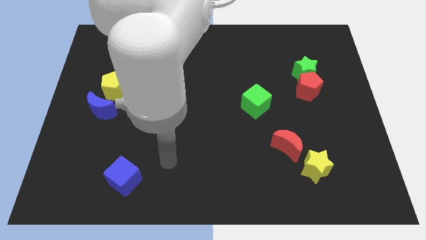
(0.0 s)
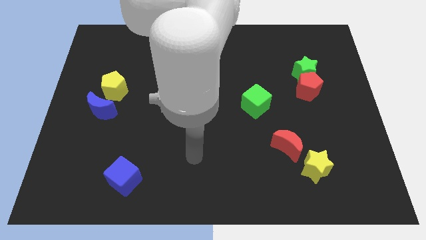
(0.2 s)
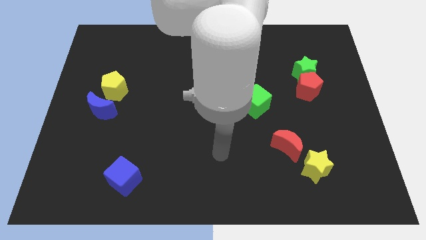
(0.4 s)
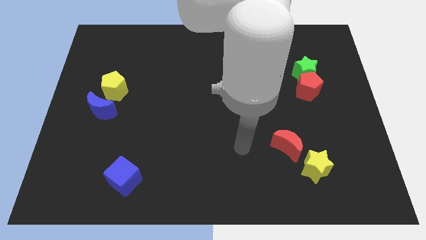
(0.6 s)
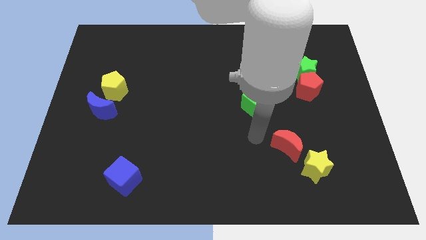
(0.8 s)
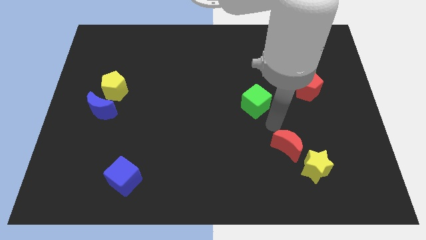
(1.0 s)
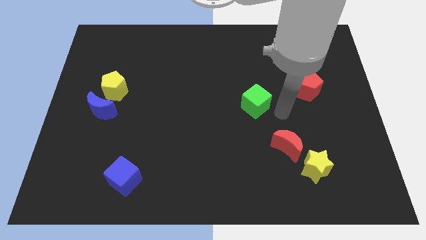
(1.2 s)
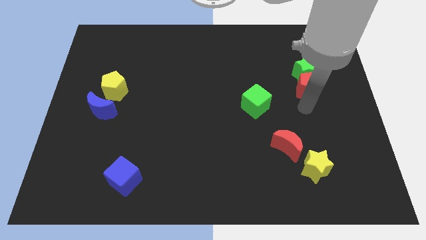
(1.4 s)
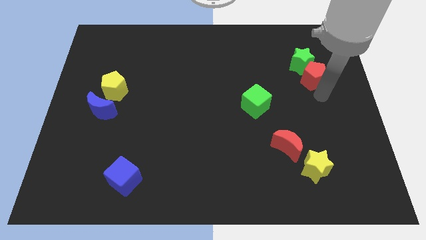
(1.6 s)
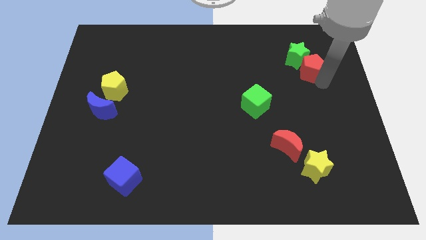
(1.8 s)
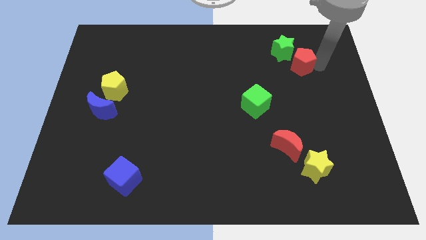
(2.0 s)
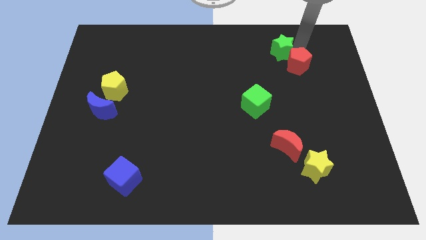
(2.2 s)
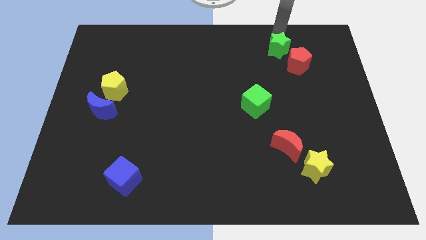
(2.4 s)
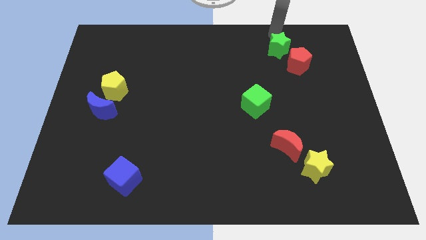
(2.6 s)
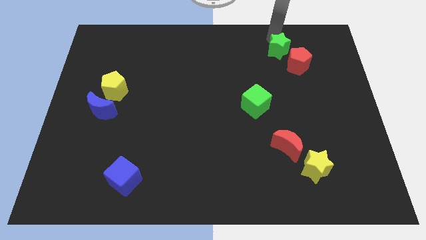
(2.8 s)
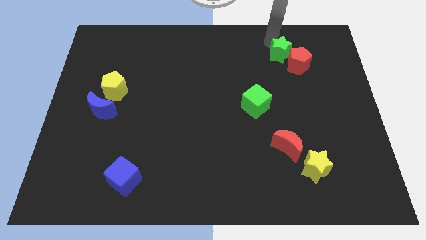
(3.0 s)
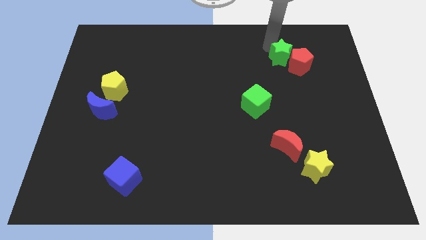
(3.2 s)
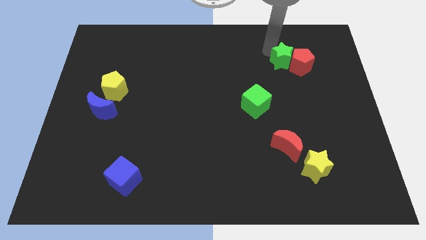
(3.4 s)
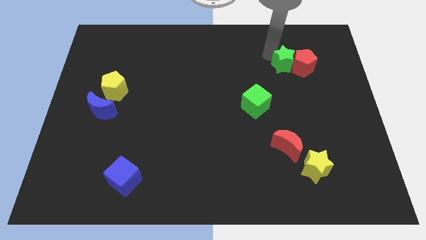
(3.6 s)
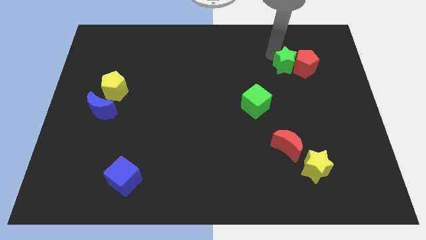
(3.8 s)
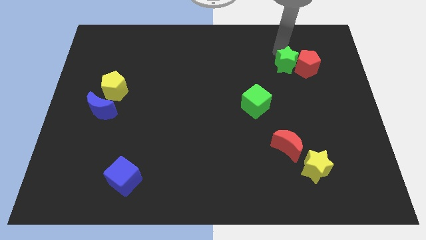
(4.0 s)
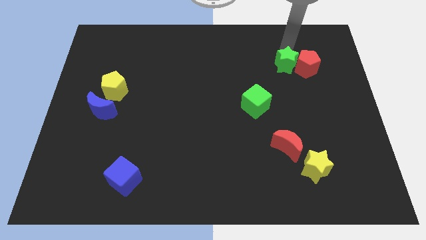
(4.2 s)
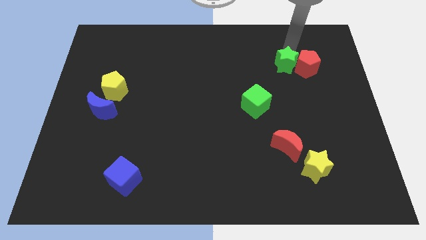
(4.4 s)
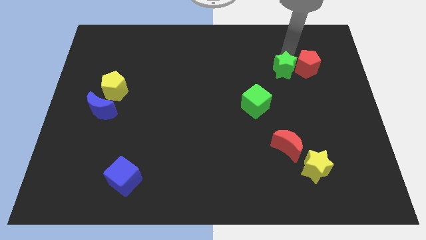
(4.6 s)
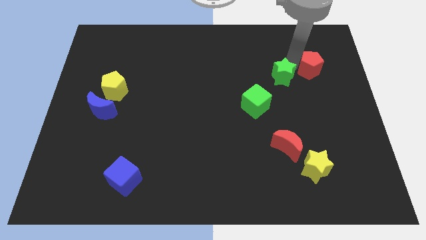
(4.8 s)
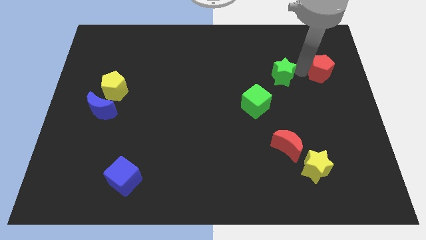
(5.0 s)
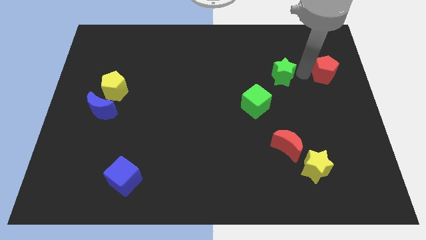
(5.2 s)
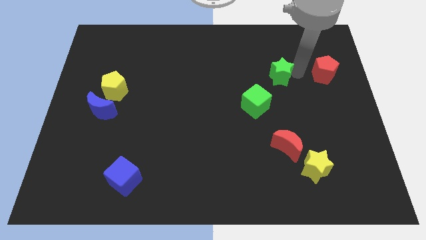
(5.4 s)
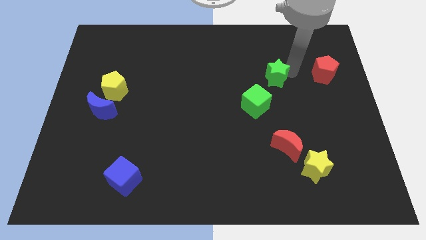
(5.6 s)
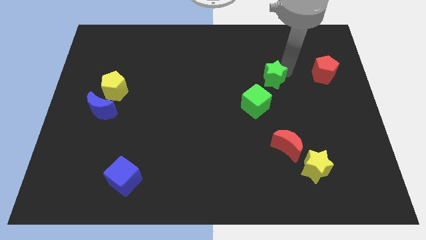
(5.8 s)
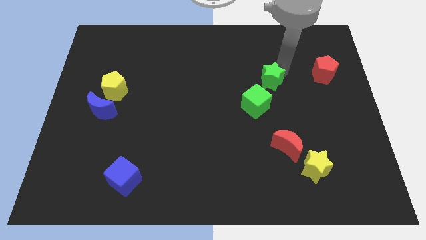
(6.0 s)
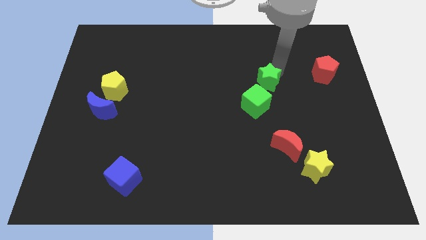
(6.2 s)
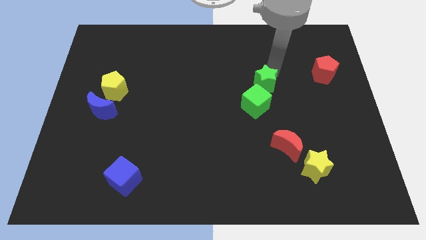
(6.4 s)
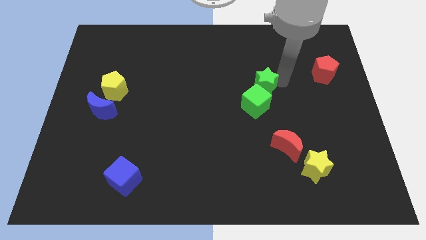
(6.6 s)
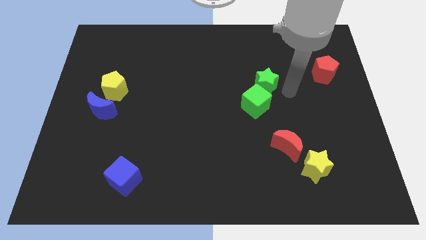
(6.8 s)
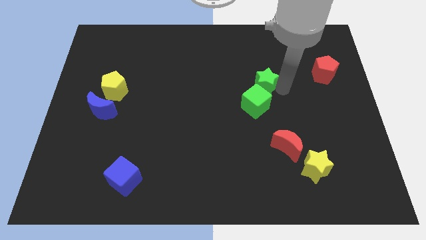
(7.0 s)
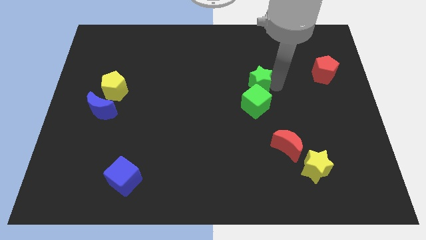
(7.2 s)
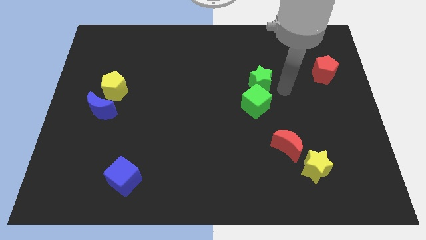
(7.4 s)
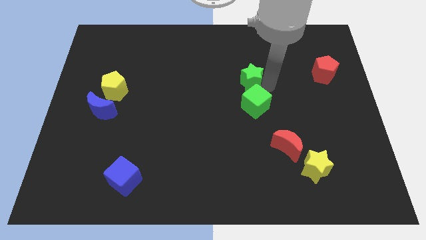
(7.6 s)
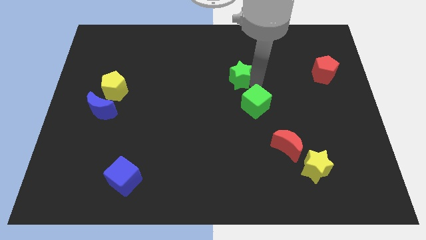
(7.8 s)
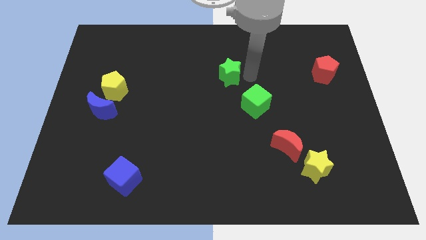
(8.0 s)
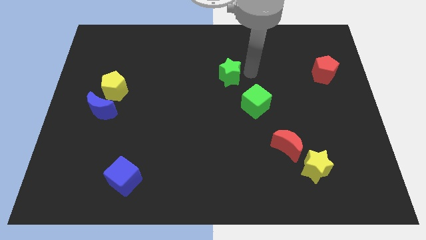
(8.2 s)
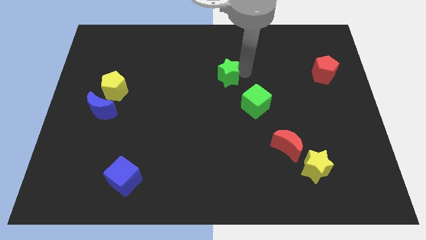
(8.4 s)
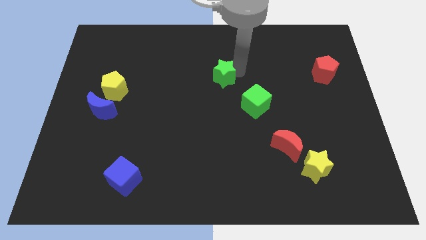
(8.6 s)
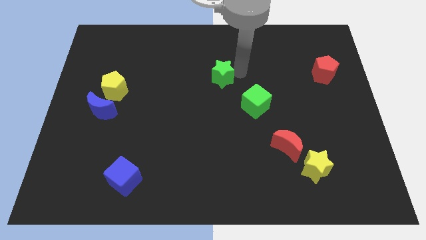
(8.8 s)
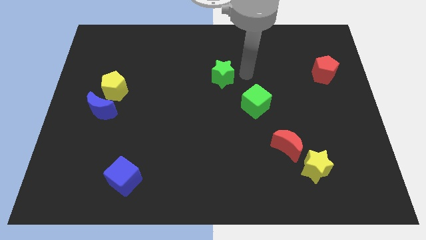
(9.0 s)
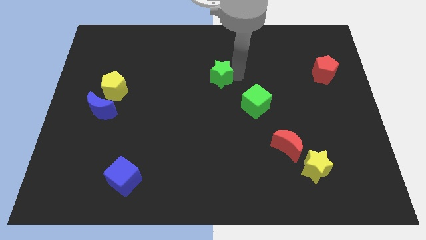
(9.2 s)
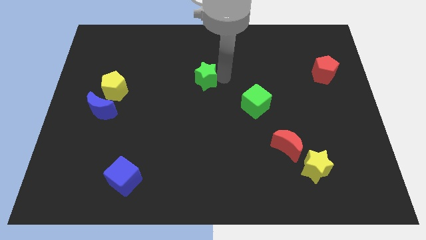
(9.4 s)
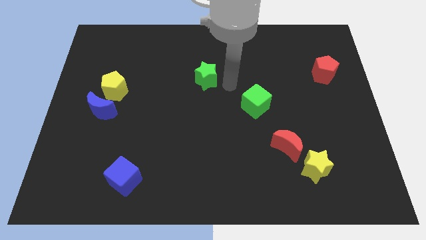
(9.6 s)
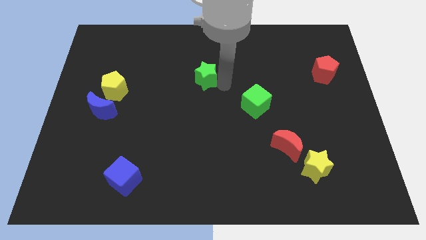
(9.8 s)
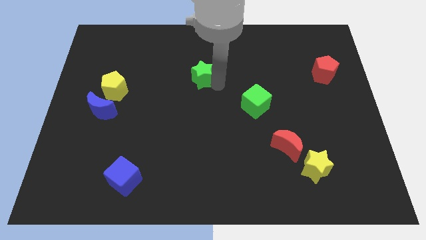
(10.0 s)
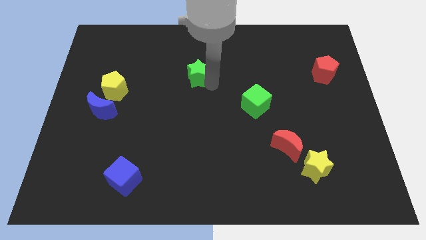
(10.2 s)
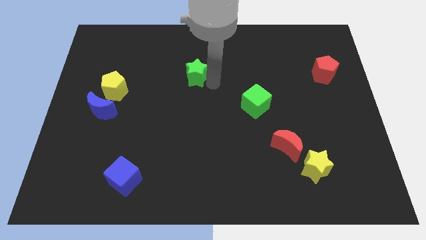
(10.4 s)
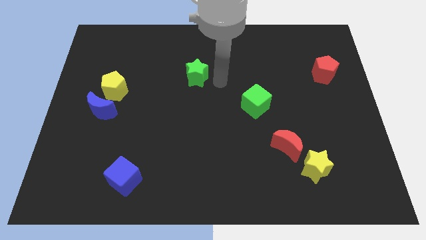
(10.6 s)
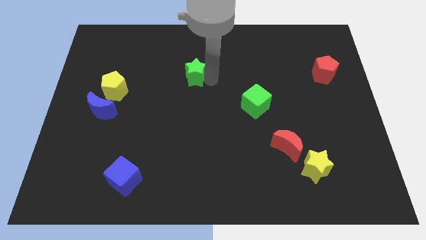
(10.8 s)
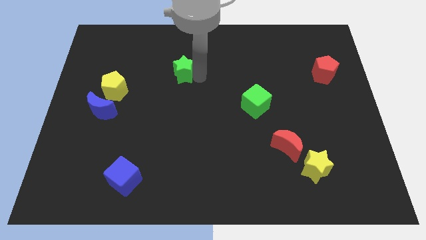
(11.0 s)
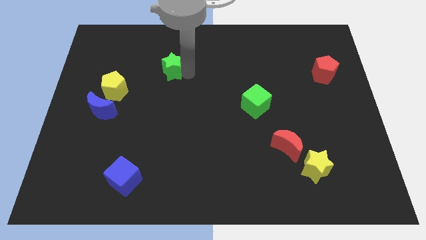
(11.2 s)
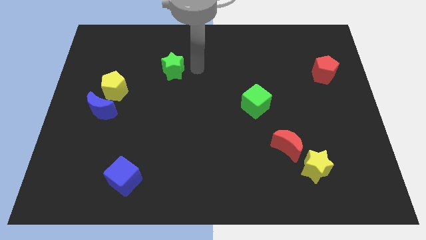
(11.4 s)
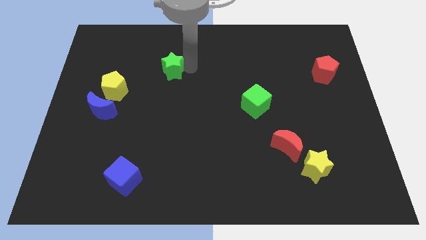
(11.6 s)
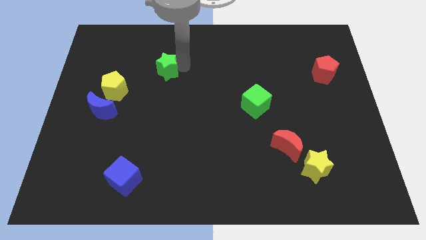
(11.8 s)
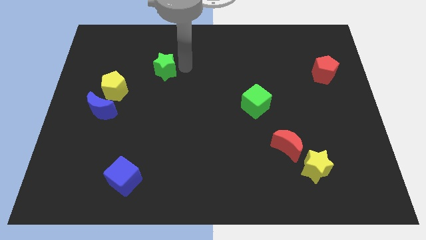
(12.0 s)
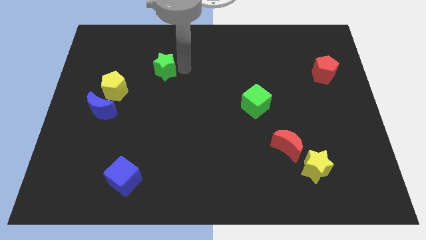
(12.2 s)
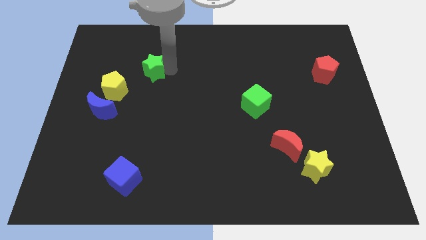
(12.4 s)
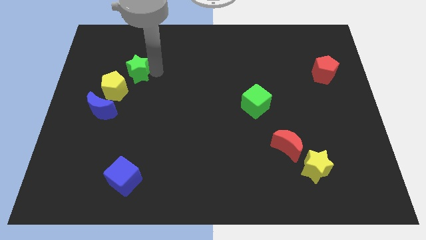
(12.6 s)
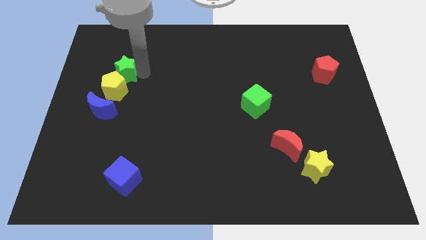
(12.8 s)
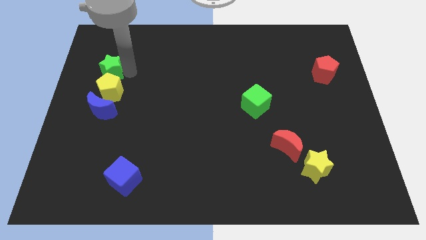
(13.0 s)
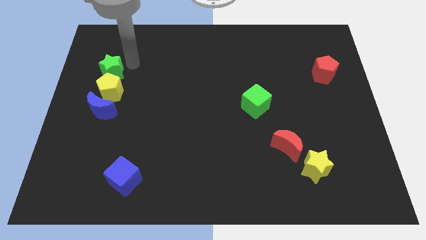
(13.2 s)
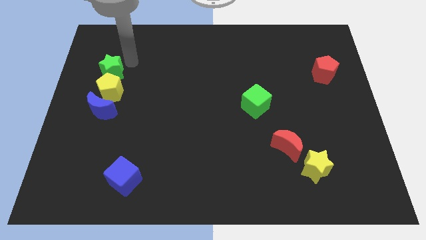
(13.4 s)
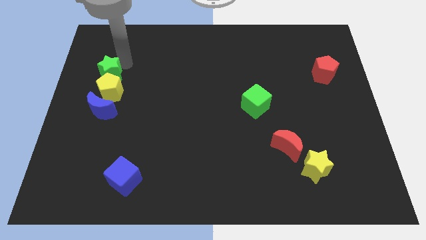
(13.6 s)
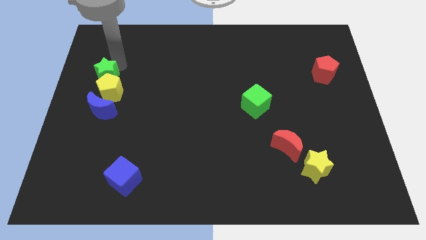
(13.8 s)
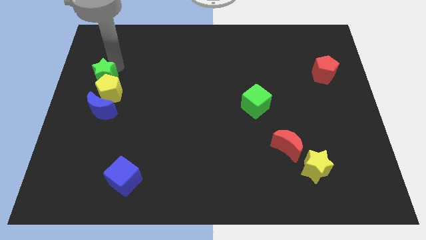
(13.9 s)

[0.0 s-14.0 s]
slide the green star to the center left
